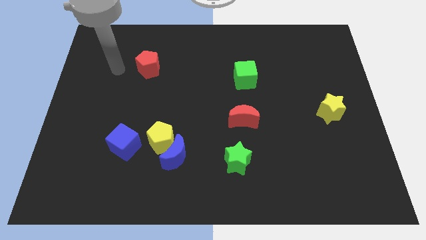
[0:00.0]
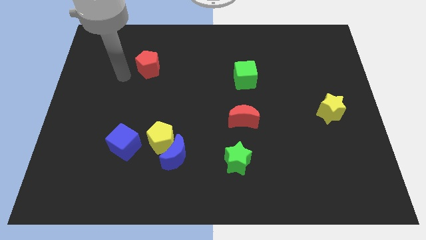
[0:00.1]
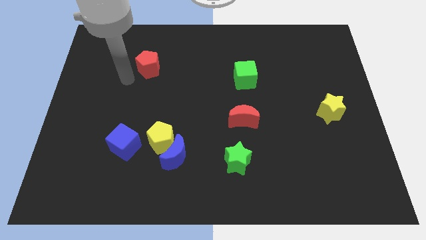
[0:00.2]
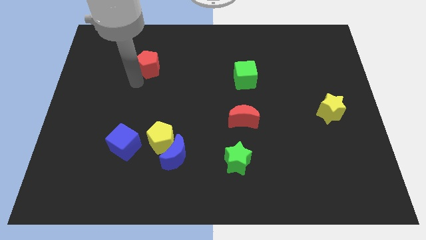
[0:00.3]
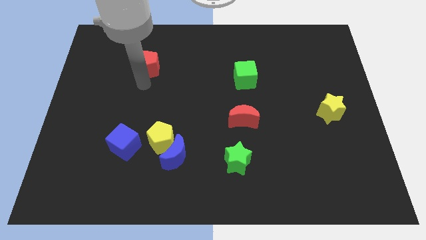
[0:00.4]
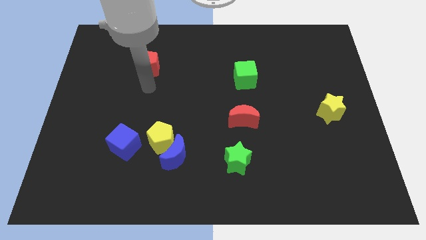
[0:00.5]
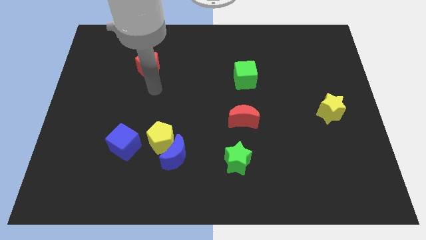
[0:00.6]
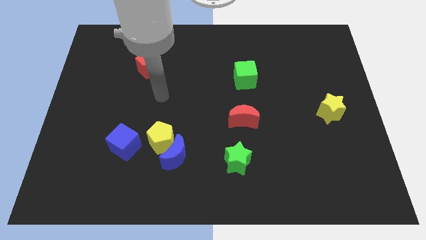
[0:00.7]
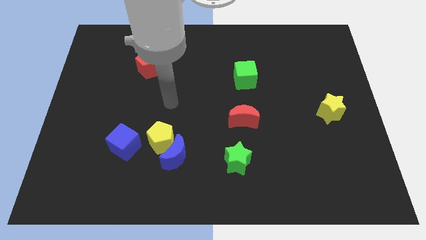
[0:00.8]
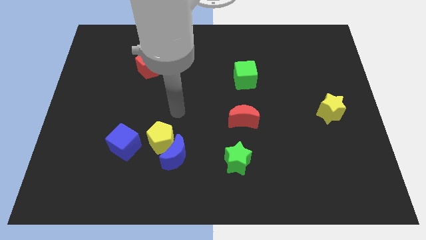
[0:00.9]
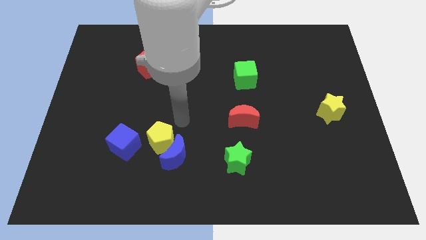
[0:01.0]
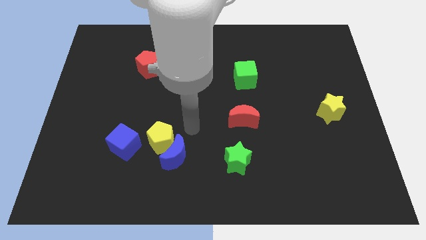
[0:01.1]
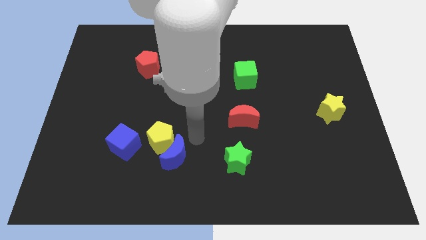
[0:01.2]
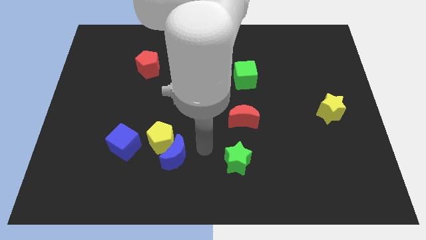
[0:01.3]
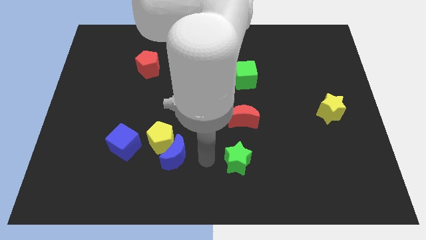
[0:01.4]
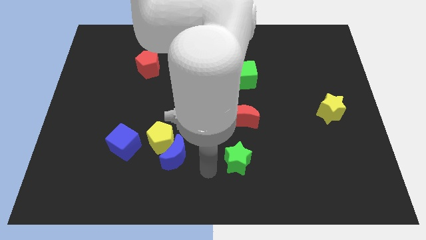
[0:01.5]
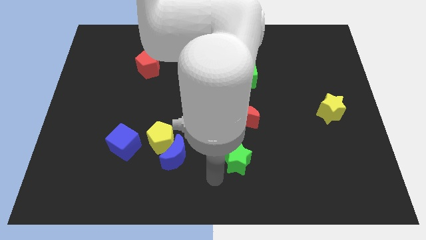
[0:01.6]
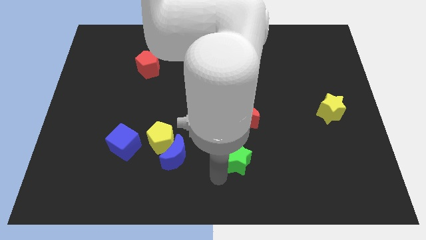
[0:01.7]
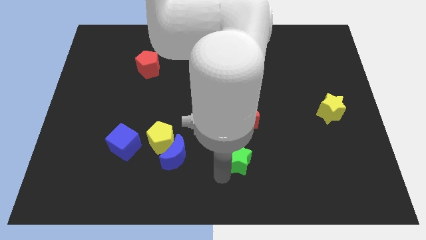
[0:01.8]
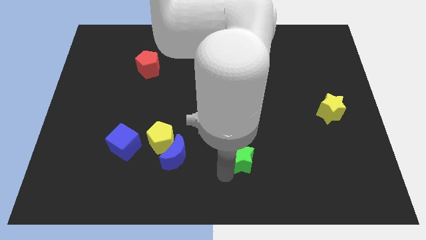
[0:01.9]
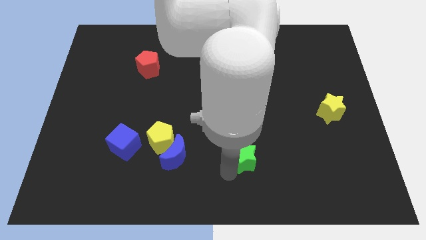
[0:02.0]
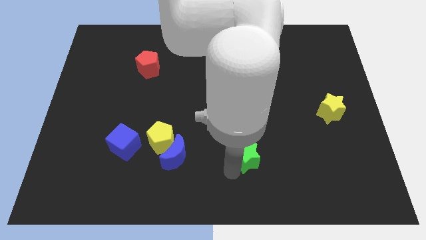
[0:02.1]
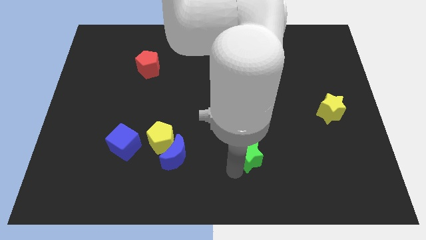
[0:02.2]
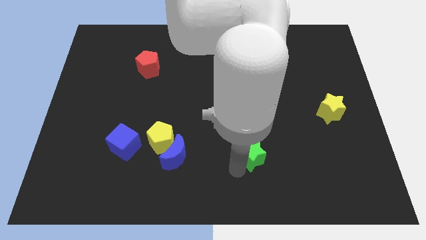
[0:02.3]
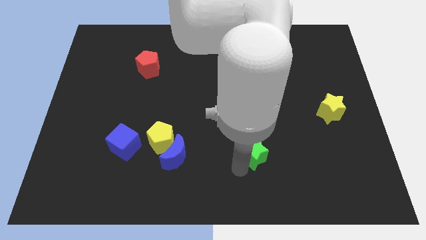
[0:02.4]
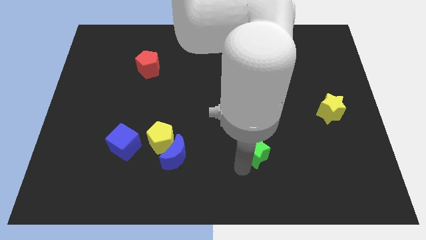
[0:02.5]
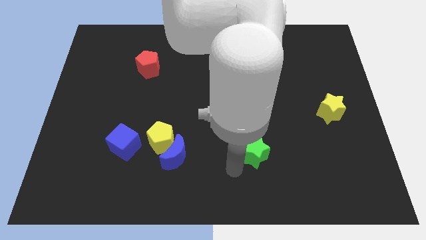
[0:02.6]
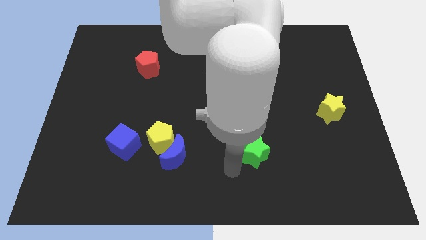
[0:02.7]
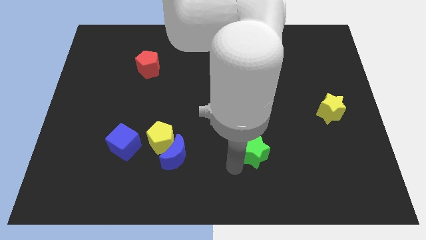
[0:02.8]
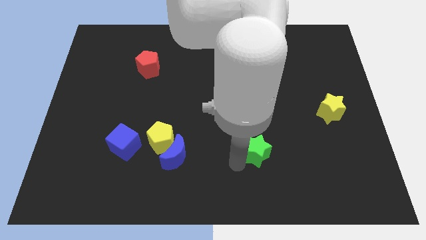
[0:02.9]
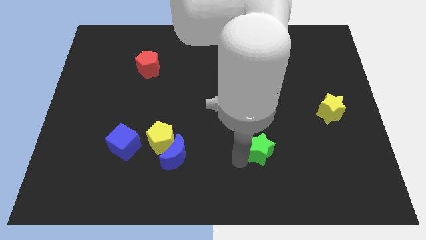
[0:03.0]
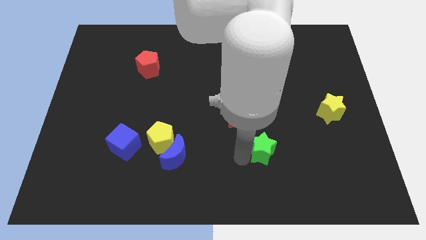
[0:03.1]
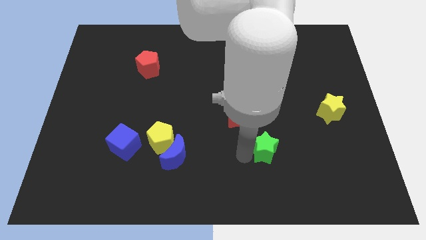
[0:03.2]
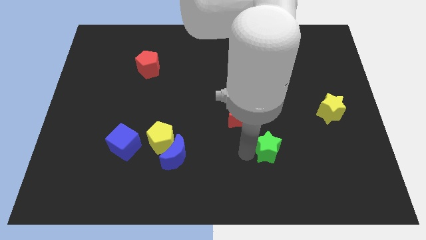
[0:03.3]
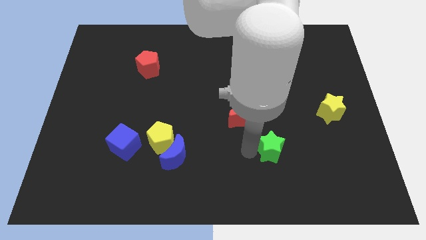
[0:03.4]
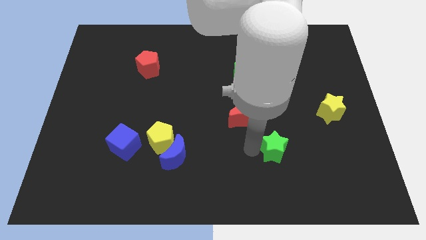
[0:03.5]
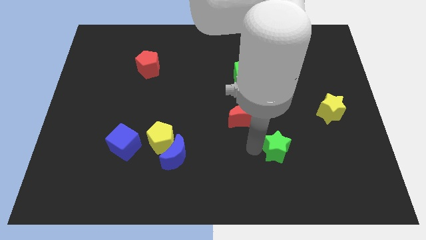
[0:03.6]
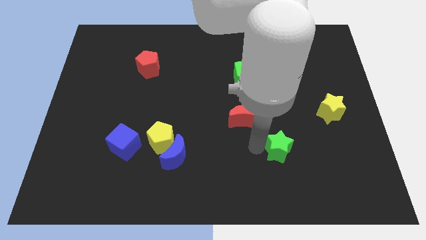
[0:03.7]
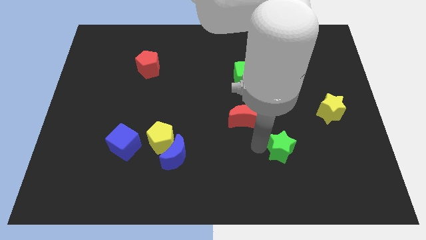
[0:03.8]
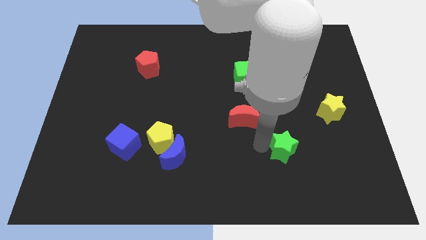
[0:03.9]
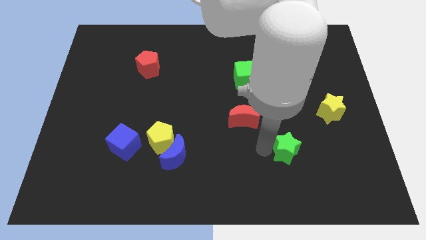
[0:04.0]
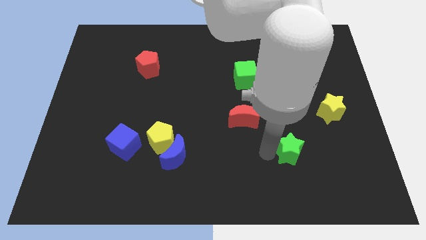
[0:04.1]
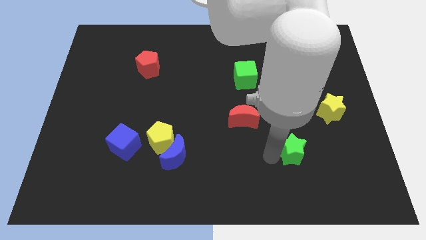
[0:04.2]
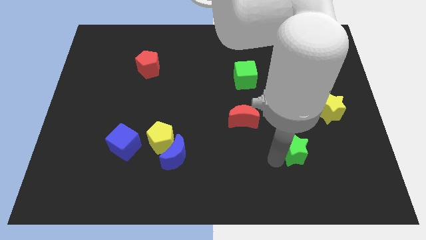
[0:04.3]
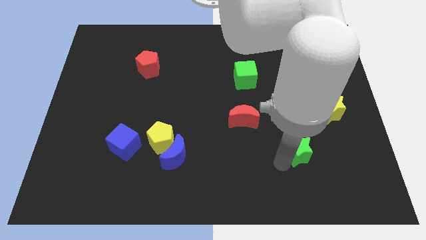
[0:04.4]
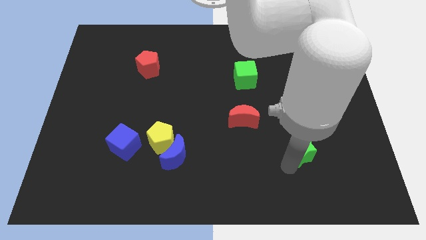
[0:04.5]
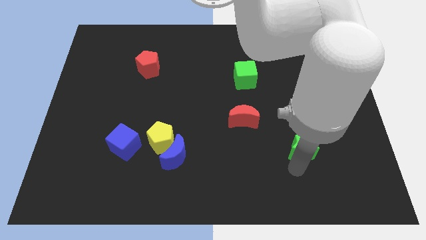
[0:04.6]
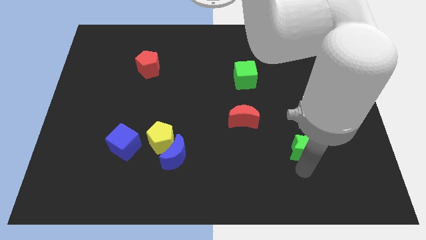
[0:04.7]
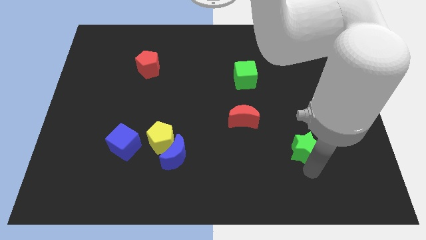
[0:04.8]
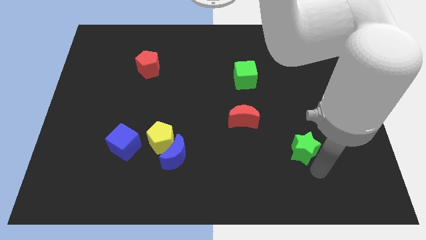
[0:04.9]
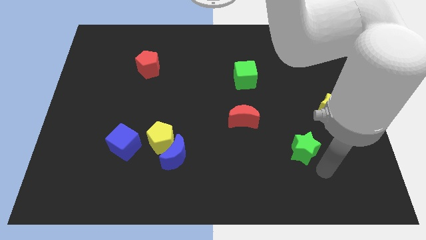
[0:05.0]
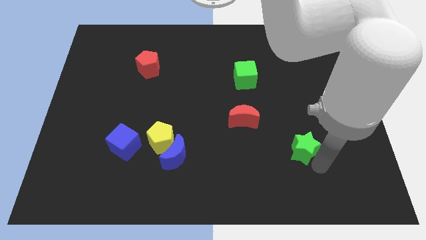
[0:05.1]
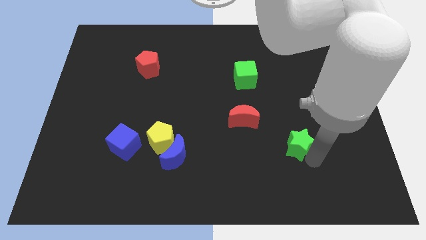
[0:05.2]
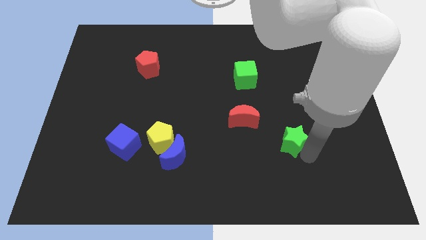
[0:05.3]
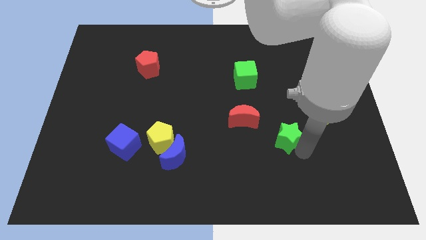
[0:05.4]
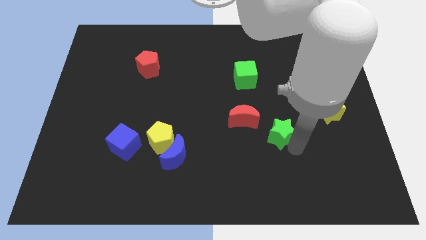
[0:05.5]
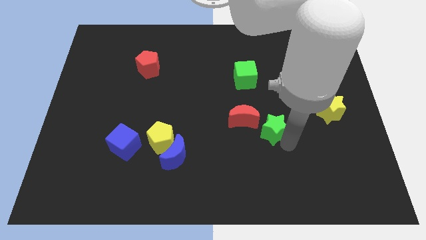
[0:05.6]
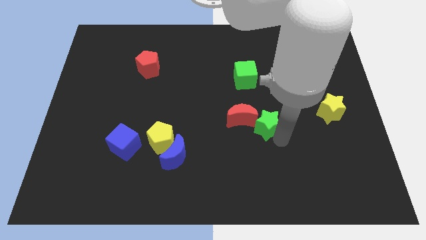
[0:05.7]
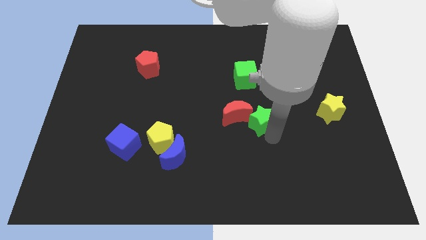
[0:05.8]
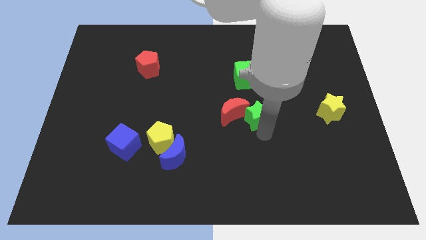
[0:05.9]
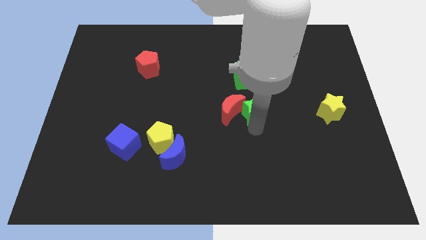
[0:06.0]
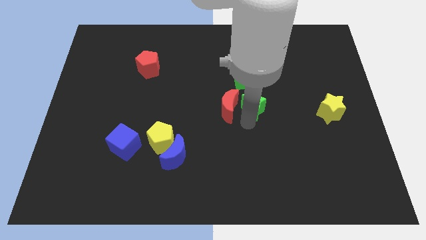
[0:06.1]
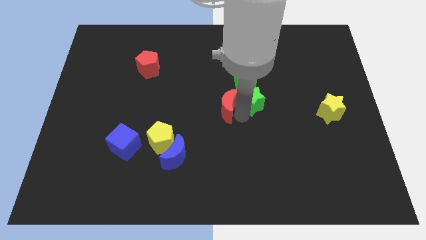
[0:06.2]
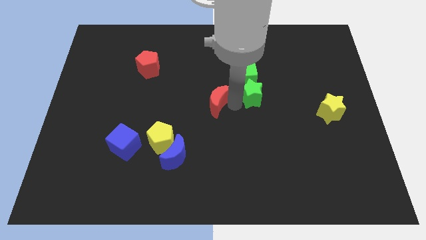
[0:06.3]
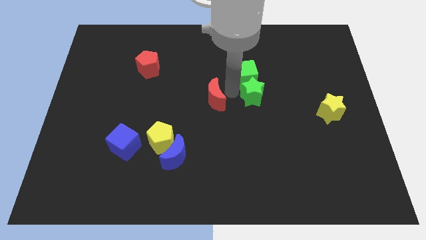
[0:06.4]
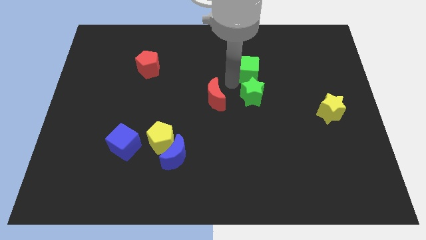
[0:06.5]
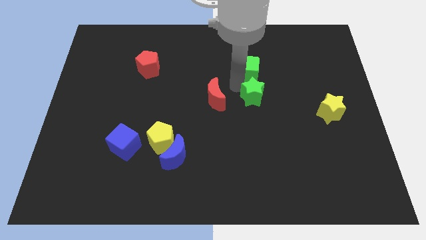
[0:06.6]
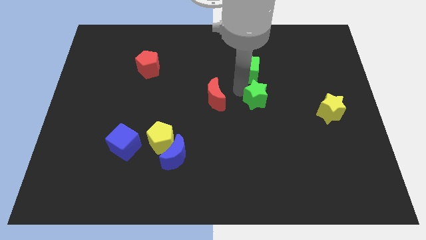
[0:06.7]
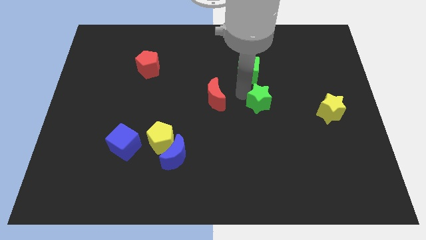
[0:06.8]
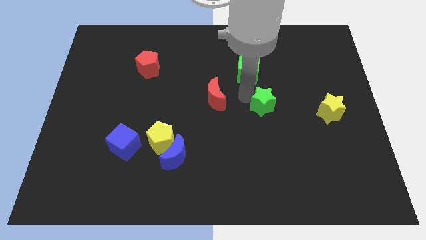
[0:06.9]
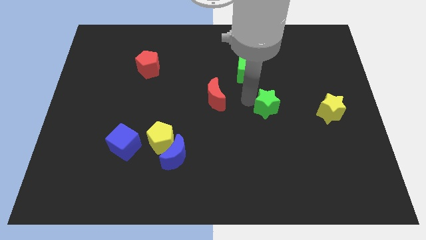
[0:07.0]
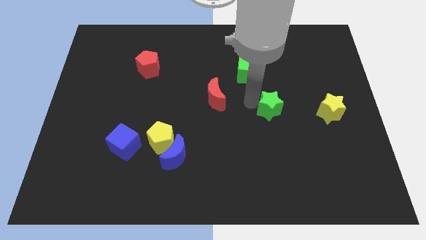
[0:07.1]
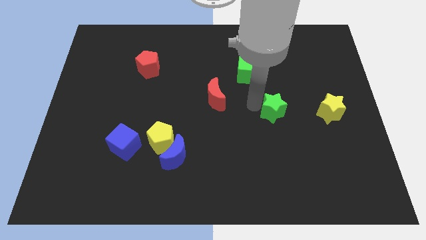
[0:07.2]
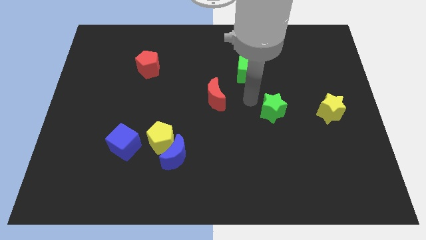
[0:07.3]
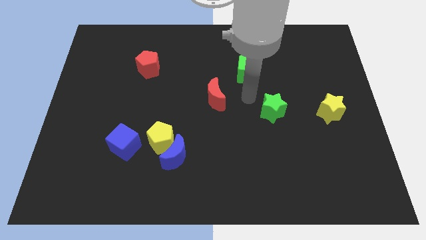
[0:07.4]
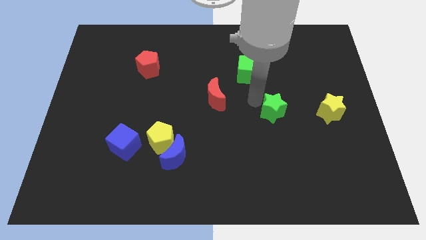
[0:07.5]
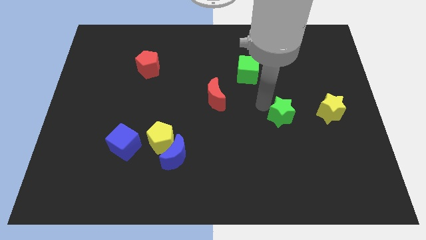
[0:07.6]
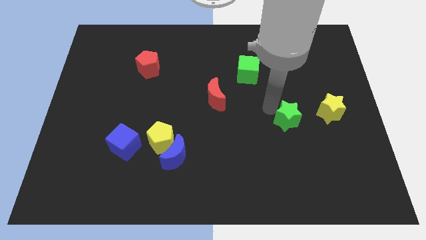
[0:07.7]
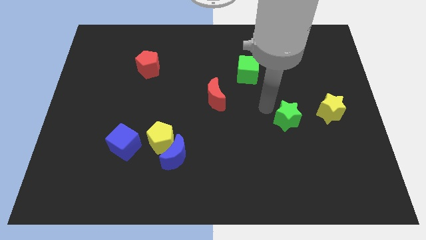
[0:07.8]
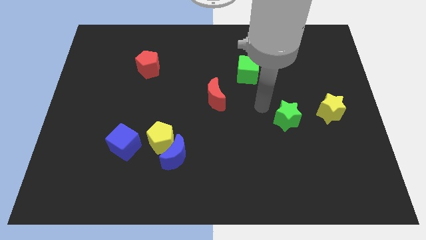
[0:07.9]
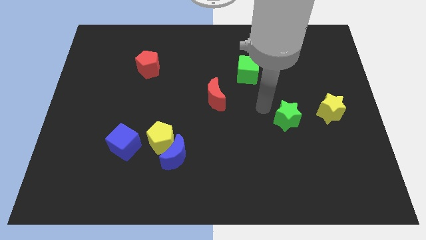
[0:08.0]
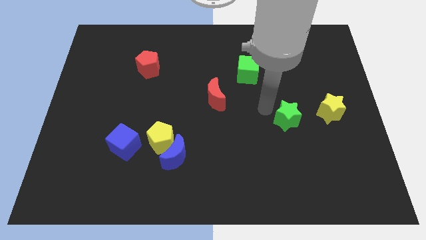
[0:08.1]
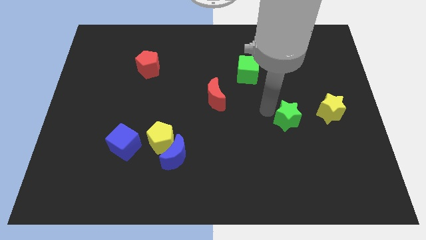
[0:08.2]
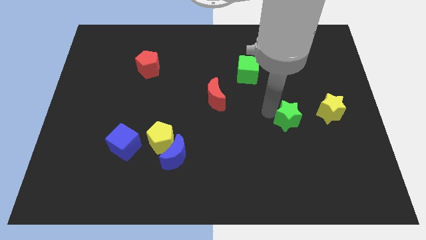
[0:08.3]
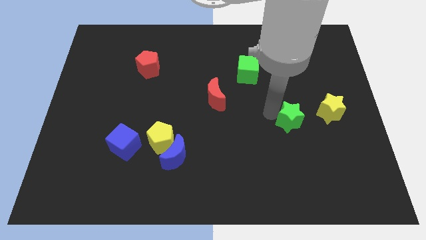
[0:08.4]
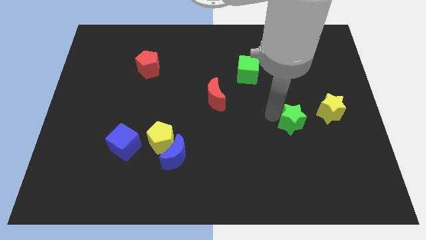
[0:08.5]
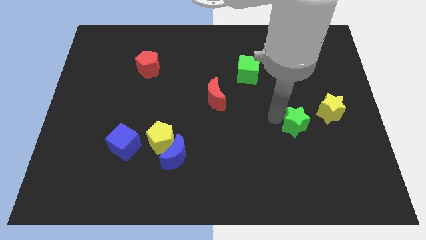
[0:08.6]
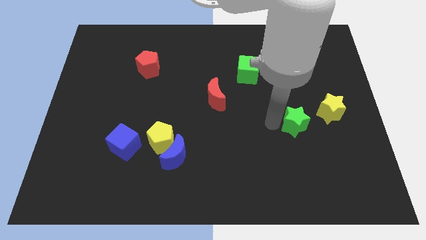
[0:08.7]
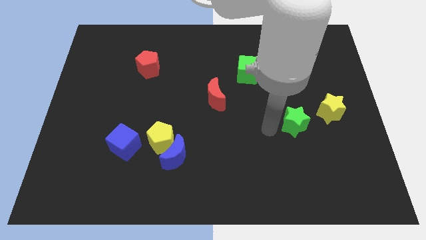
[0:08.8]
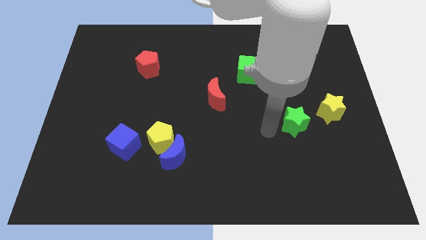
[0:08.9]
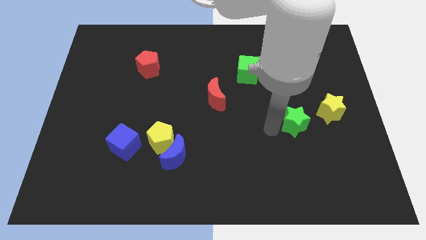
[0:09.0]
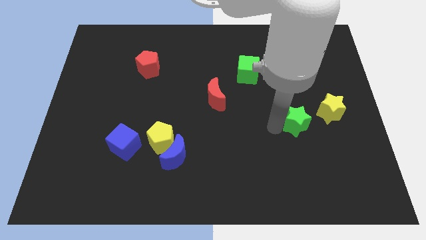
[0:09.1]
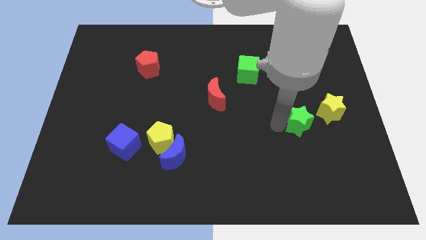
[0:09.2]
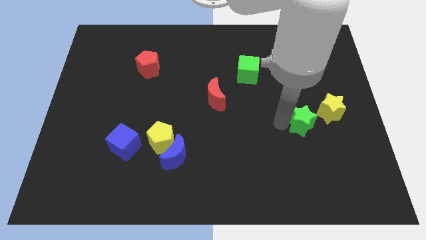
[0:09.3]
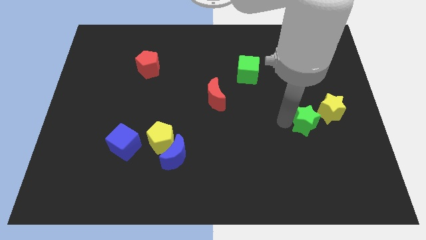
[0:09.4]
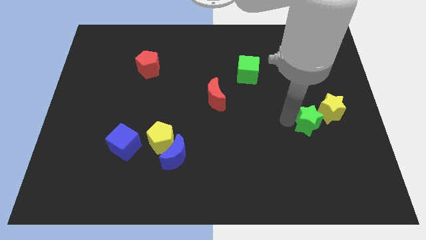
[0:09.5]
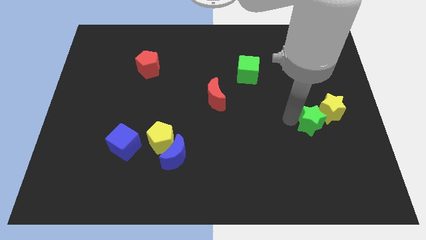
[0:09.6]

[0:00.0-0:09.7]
push the green star towards the yellow star
